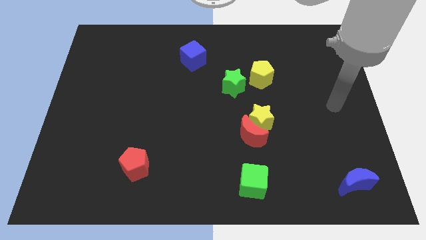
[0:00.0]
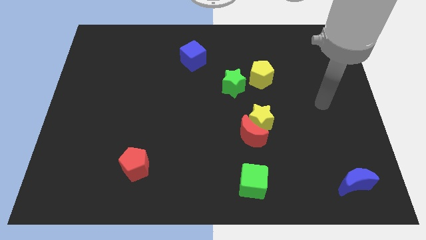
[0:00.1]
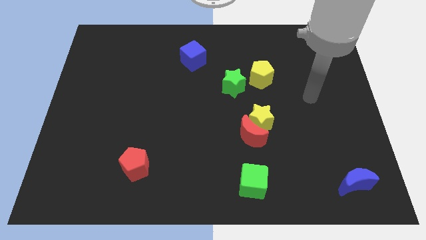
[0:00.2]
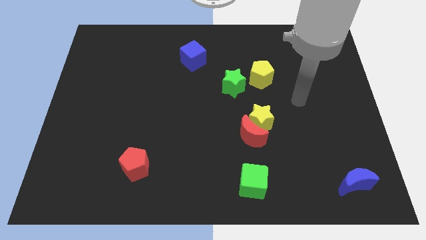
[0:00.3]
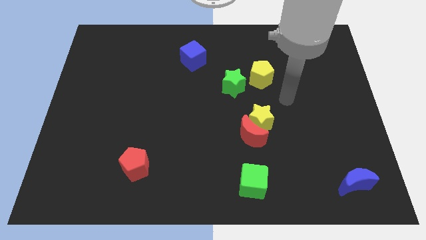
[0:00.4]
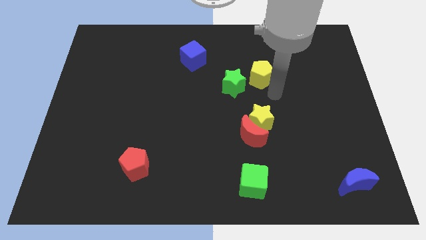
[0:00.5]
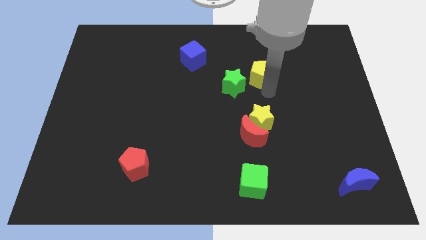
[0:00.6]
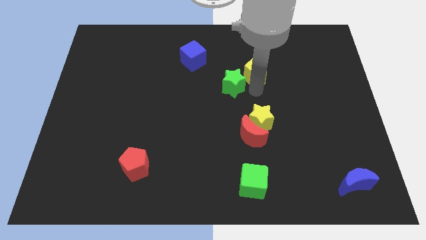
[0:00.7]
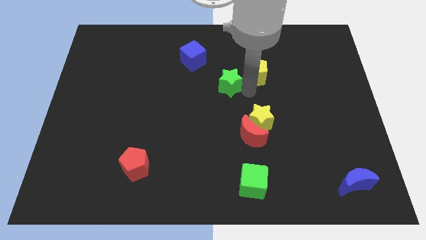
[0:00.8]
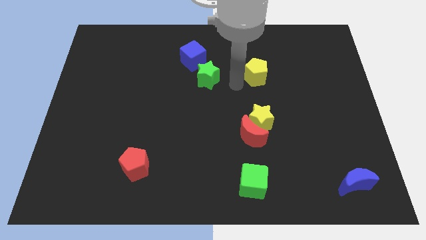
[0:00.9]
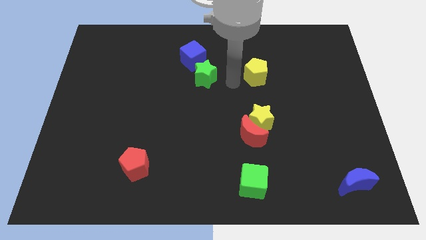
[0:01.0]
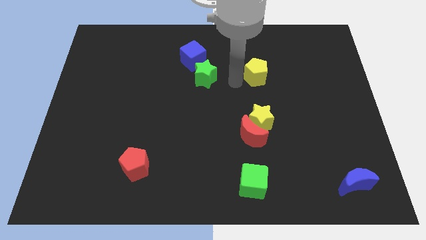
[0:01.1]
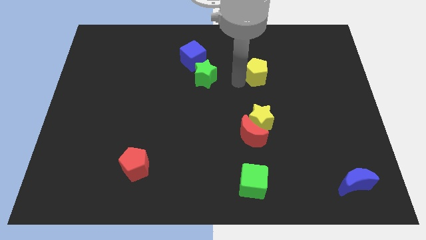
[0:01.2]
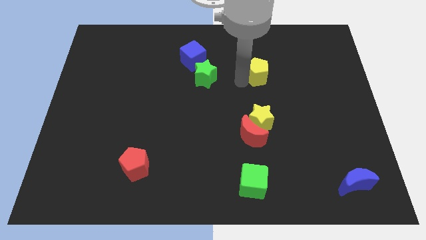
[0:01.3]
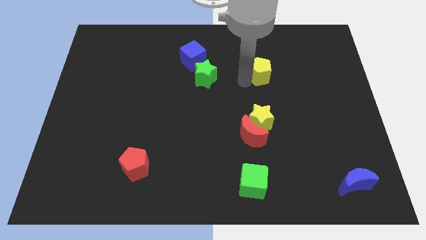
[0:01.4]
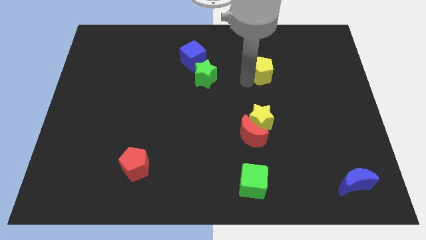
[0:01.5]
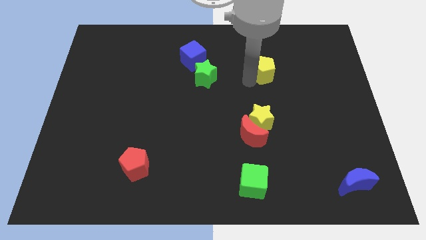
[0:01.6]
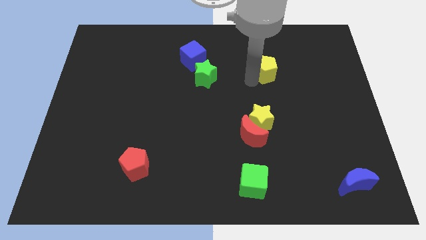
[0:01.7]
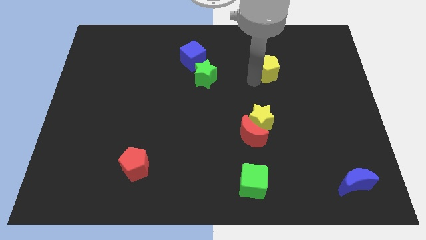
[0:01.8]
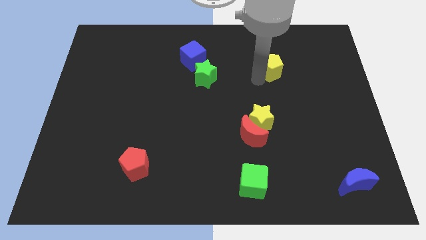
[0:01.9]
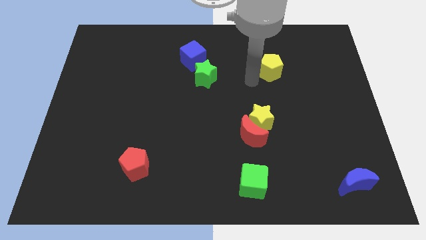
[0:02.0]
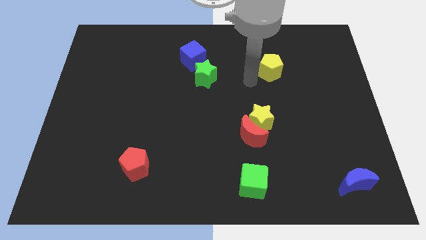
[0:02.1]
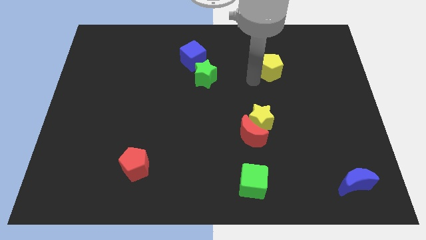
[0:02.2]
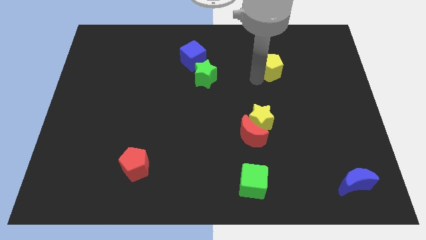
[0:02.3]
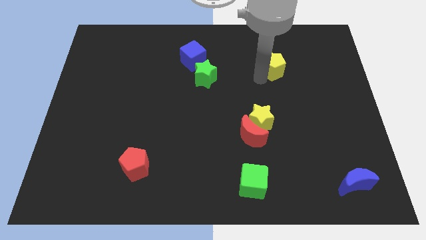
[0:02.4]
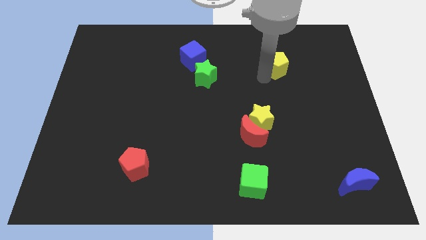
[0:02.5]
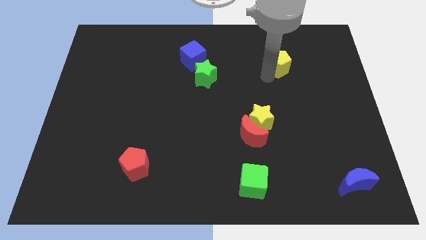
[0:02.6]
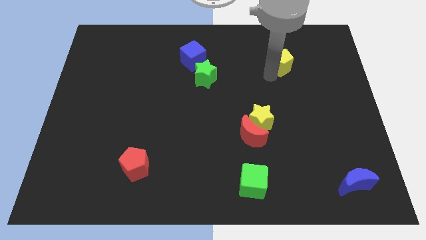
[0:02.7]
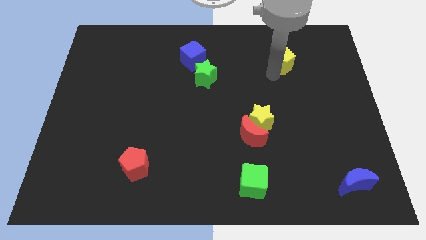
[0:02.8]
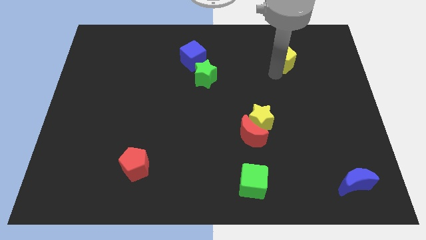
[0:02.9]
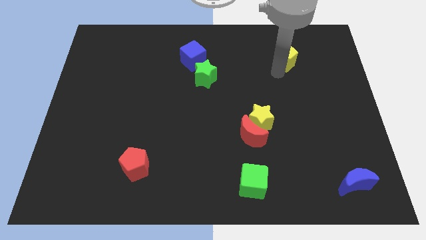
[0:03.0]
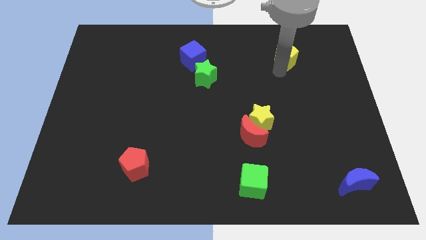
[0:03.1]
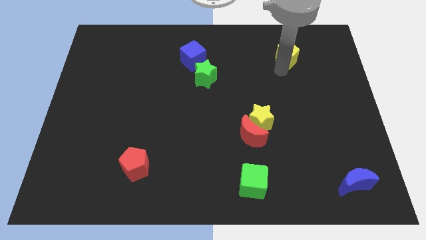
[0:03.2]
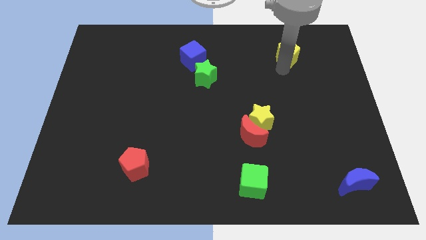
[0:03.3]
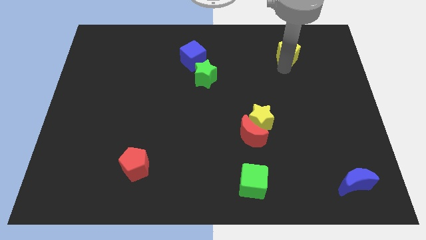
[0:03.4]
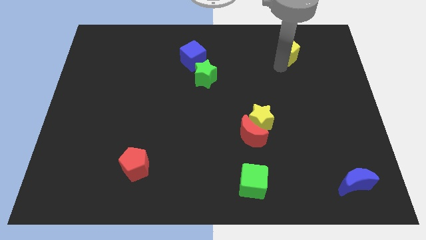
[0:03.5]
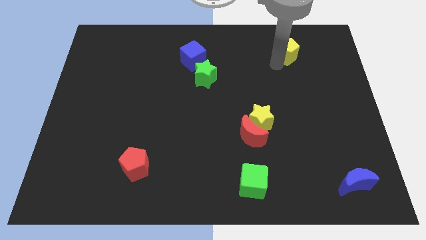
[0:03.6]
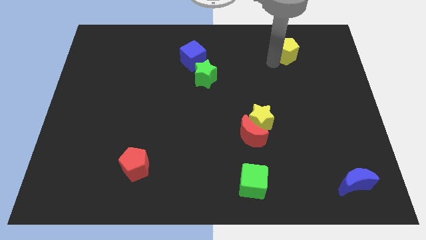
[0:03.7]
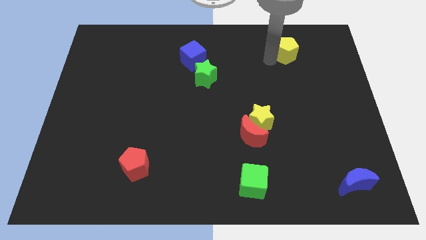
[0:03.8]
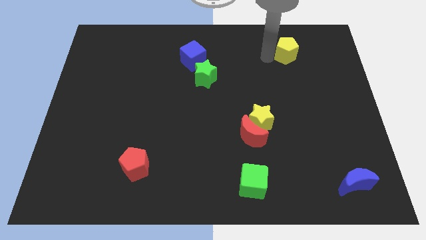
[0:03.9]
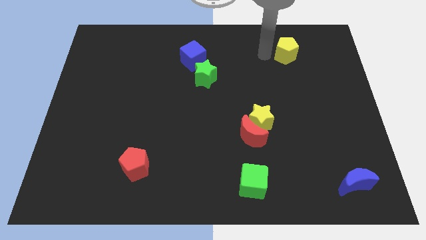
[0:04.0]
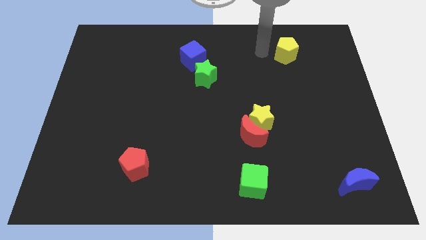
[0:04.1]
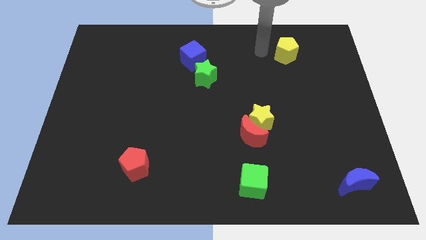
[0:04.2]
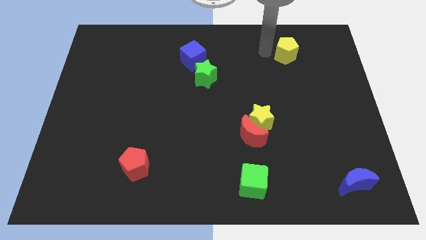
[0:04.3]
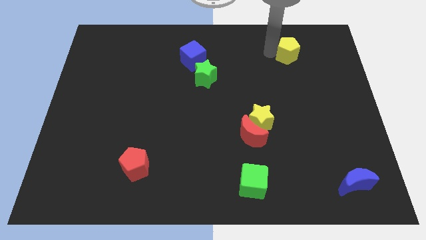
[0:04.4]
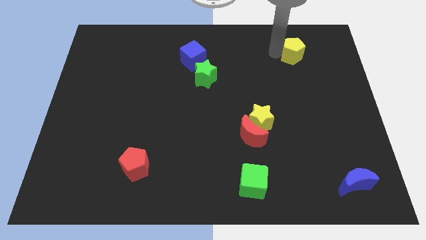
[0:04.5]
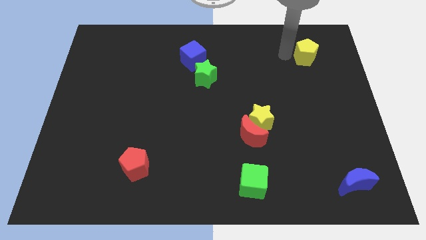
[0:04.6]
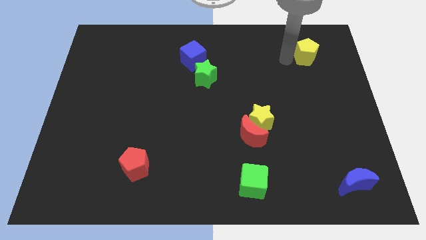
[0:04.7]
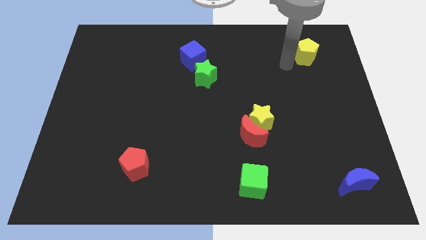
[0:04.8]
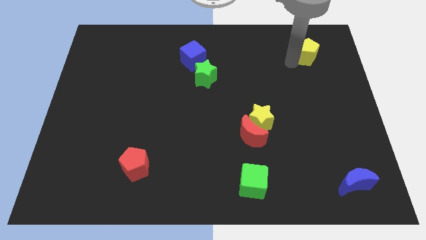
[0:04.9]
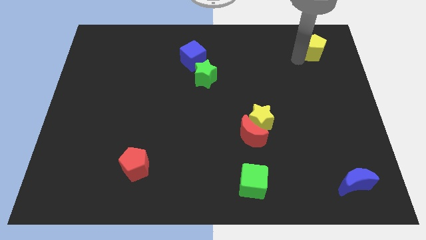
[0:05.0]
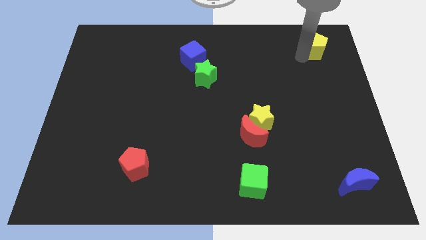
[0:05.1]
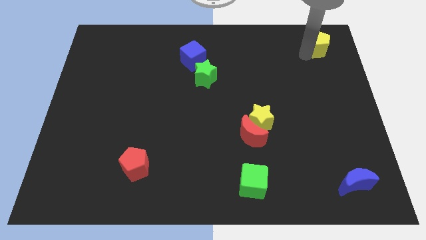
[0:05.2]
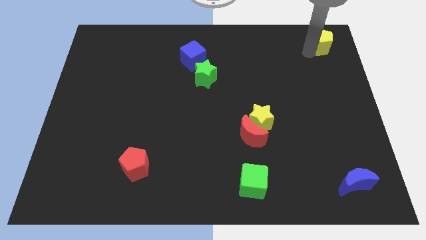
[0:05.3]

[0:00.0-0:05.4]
put the yellow pentagon to the top right
